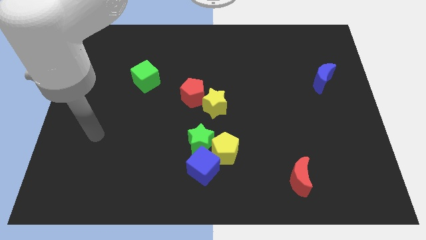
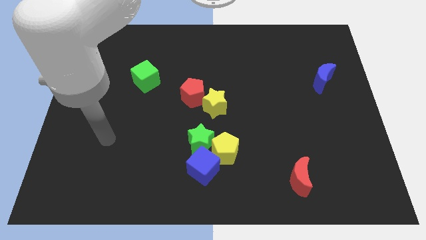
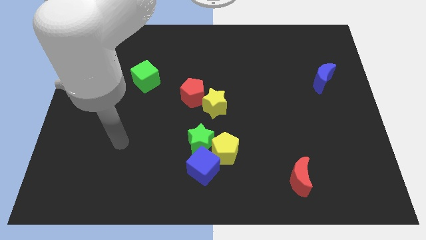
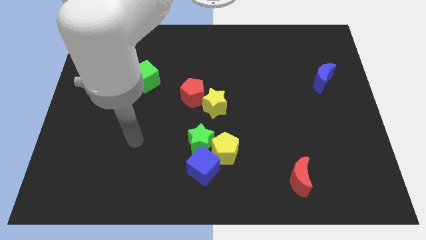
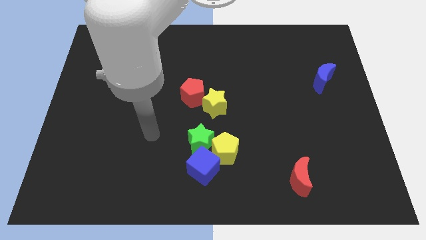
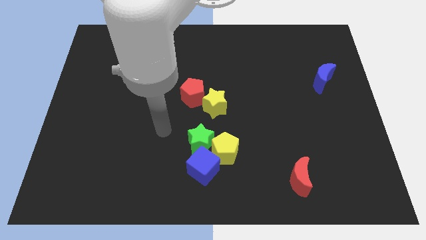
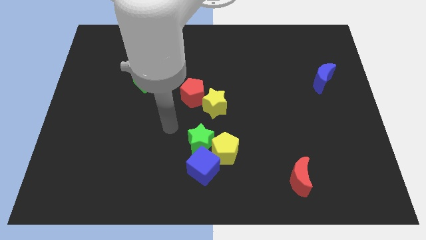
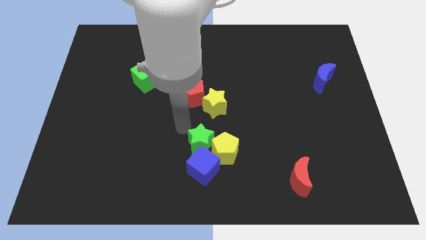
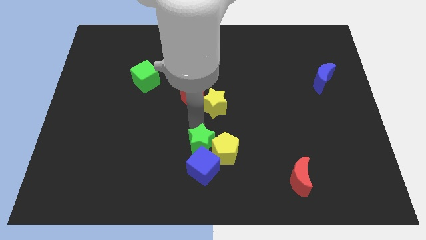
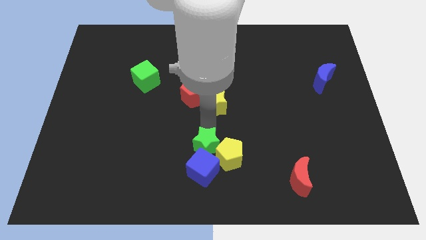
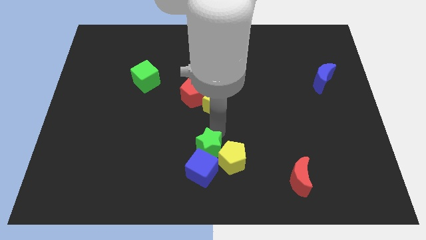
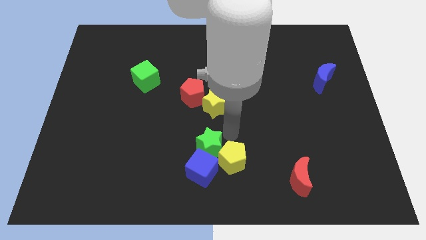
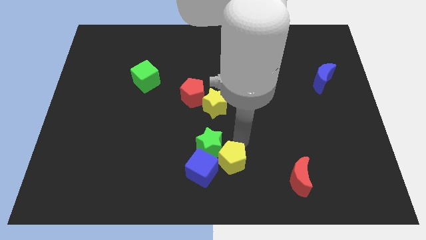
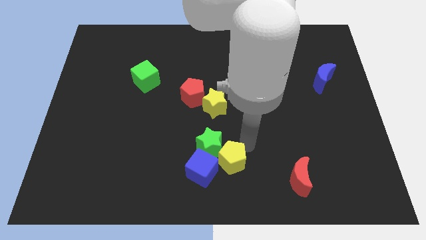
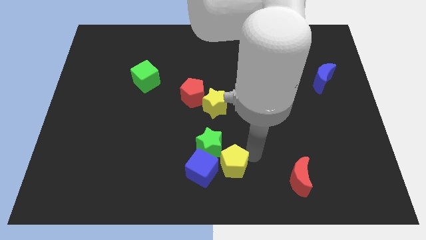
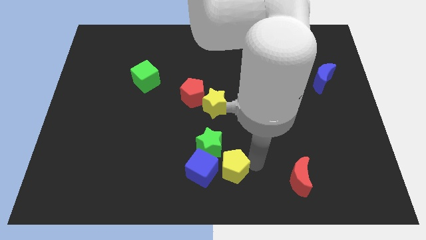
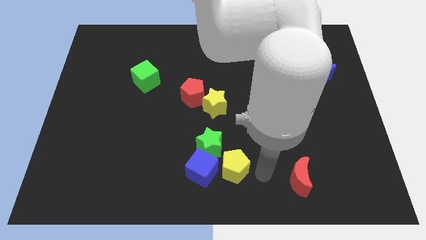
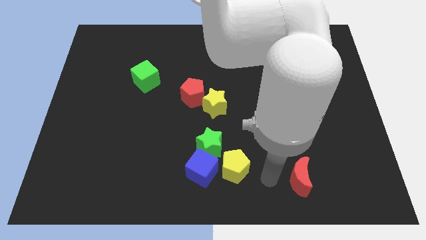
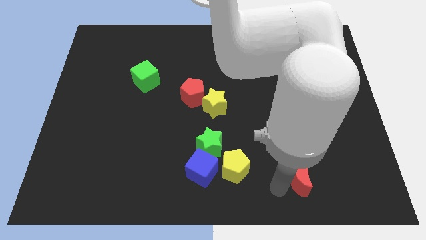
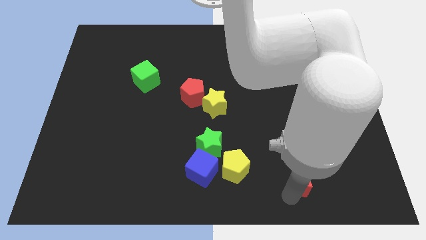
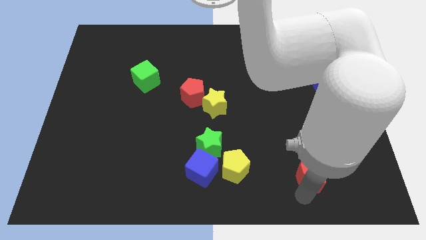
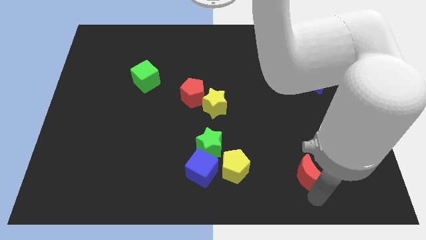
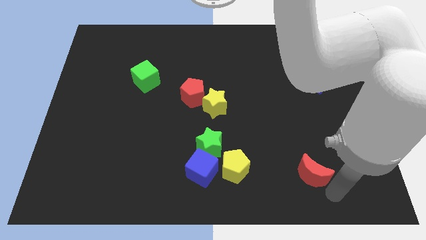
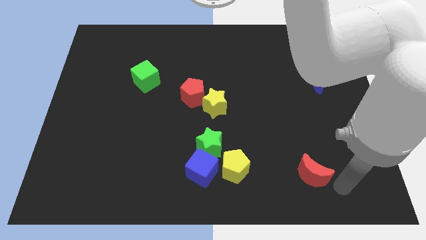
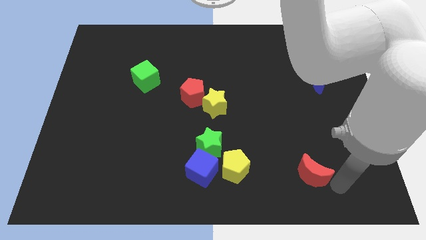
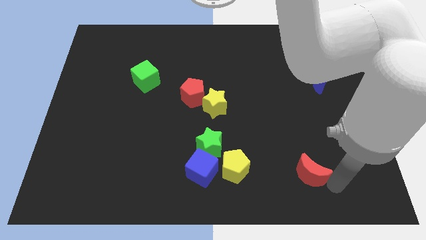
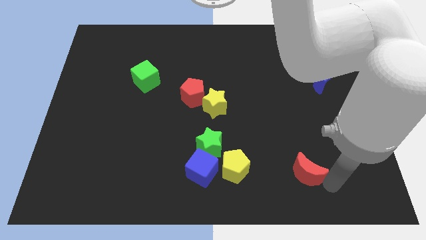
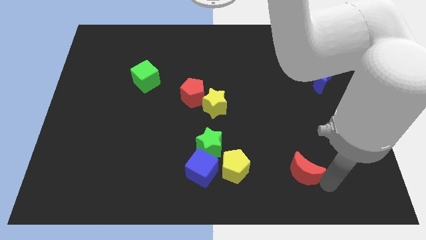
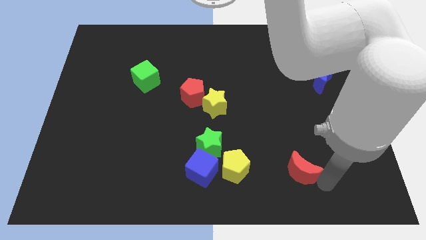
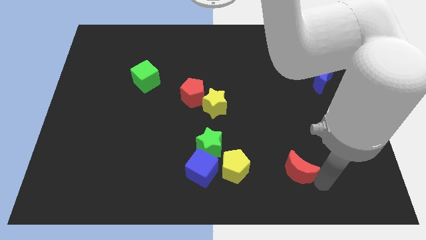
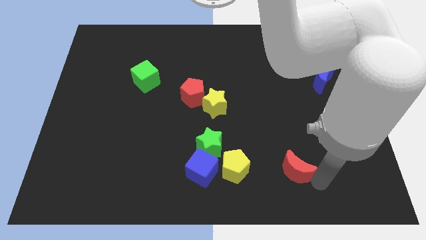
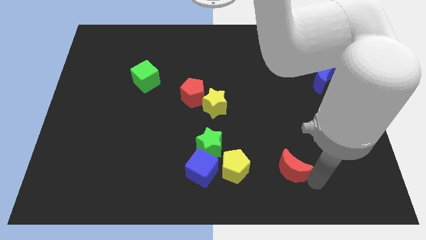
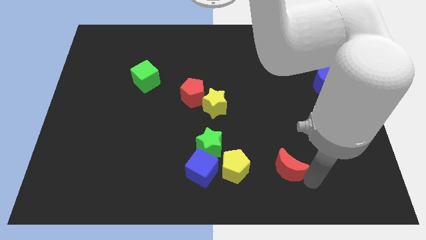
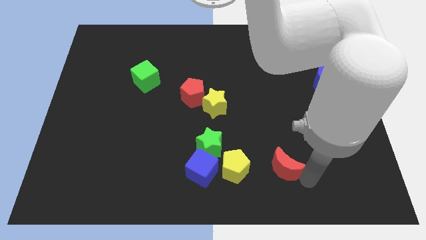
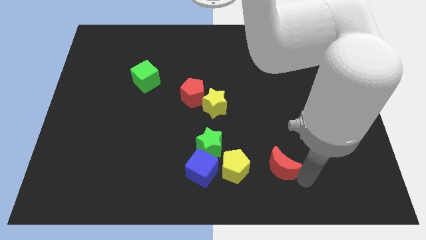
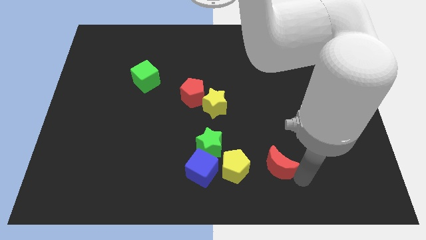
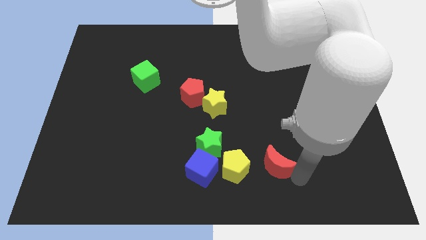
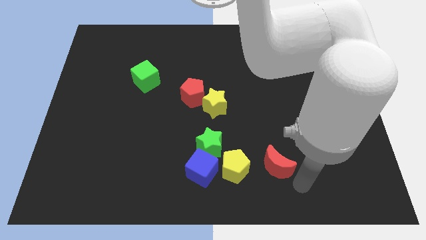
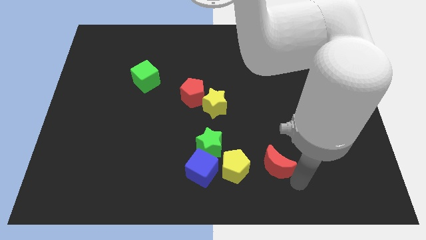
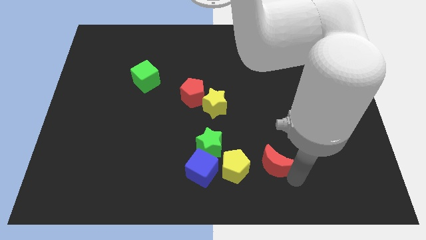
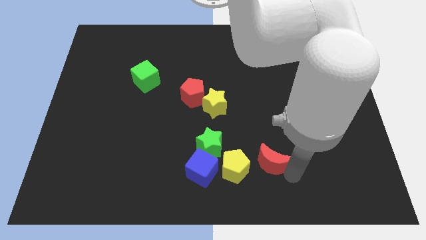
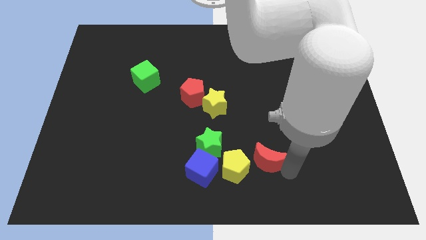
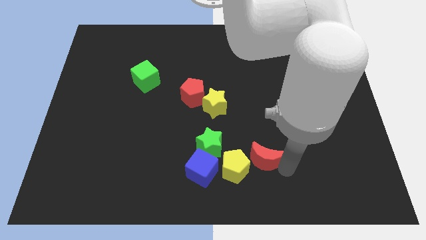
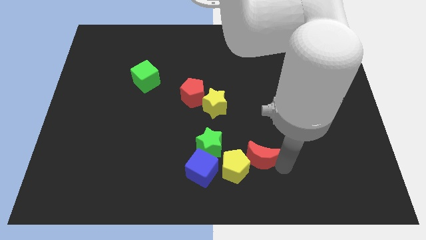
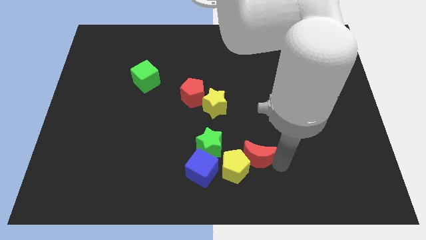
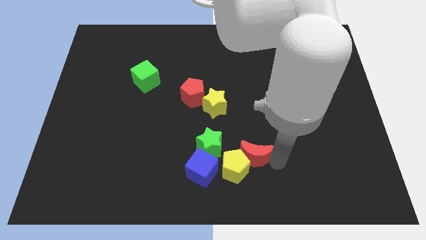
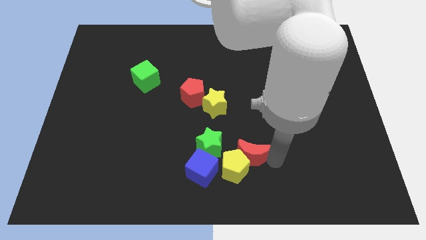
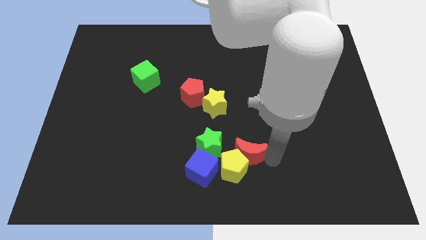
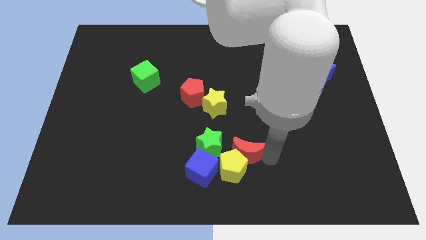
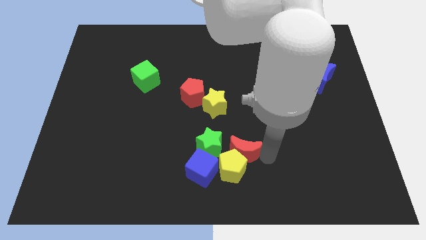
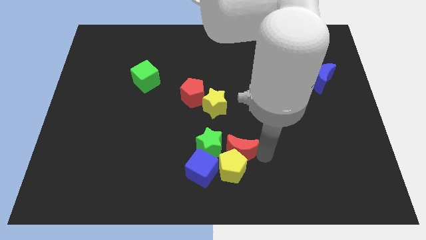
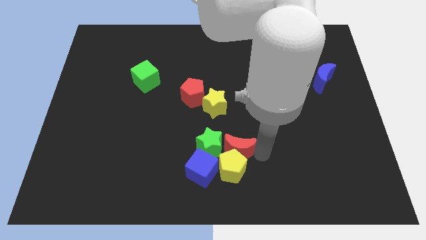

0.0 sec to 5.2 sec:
slide the red moon close to the green star

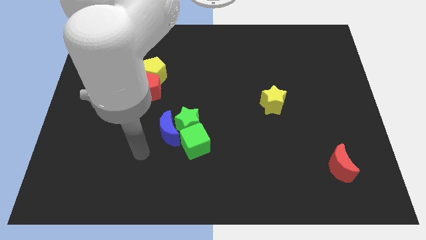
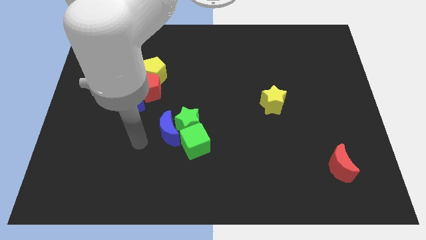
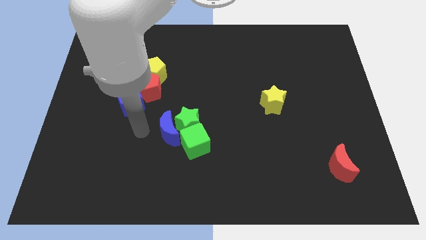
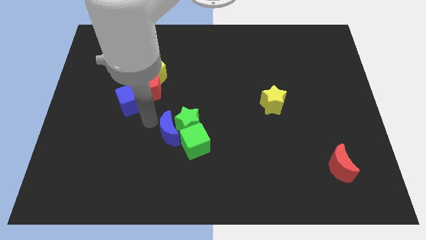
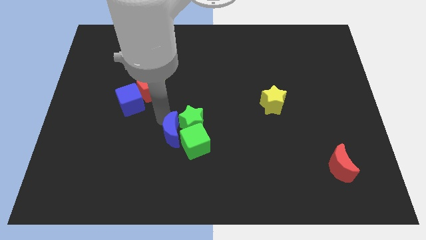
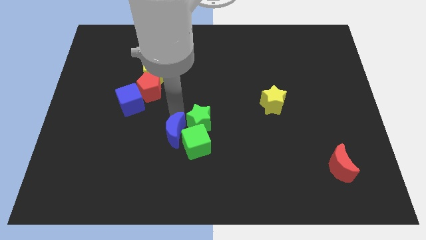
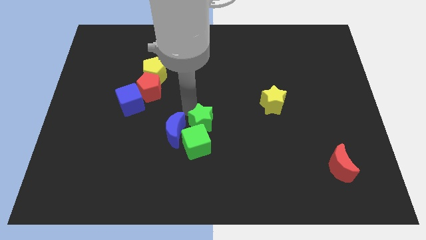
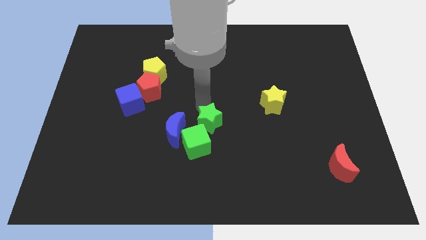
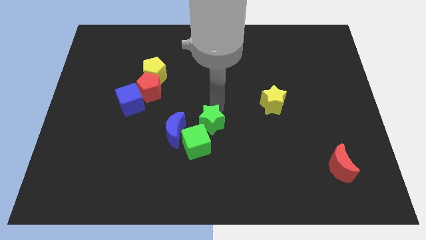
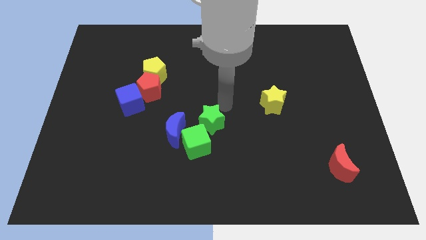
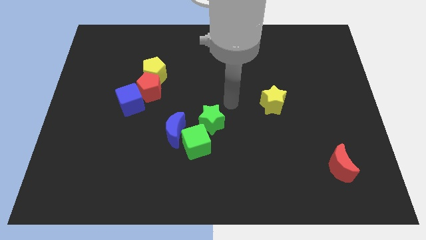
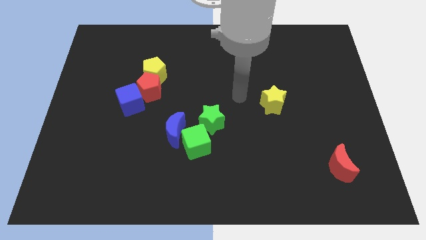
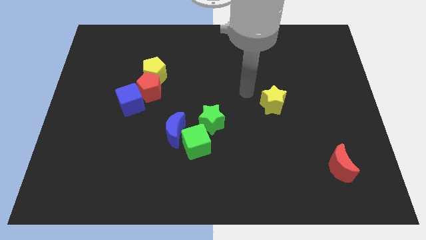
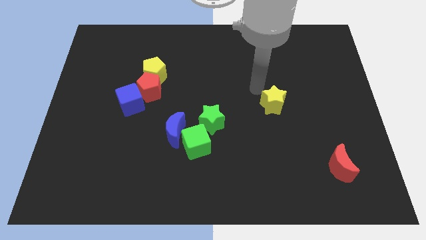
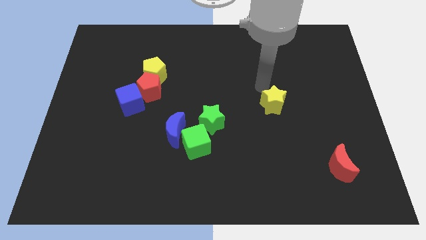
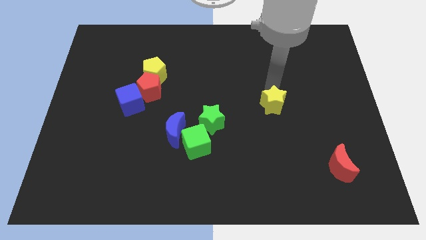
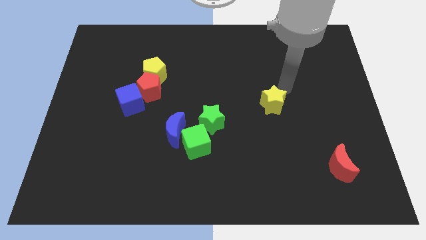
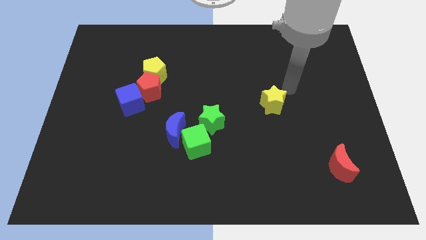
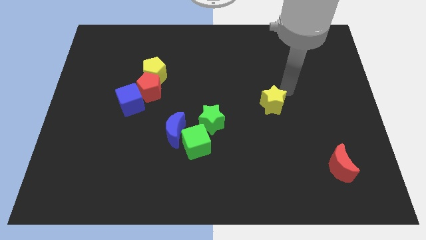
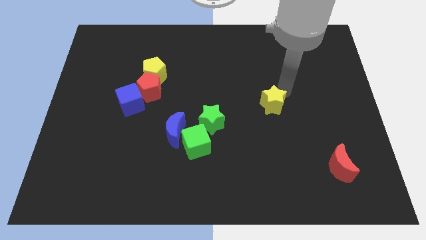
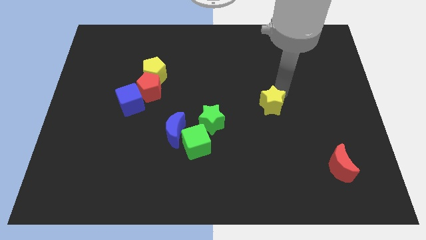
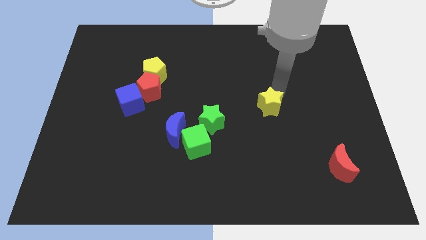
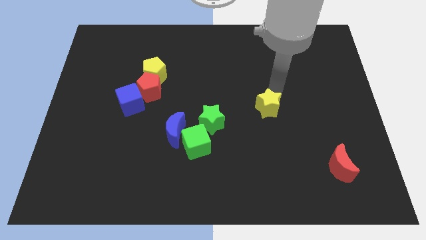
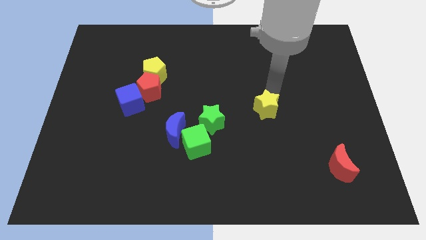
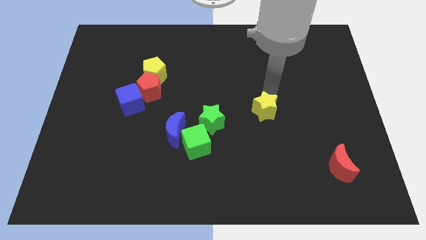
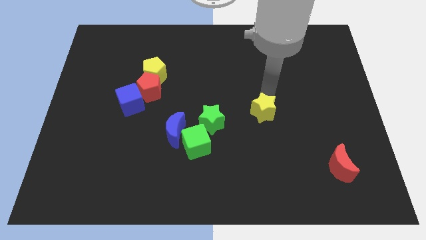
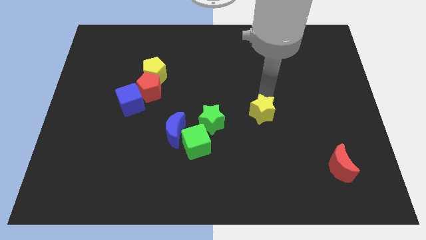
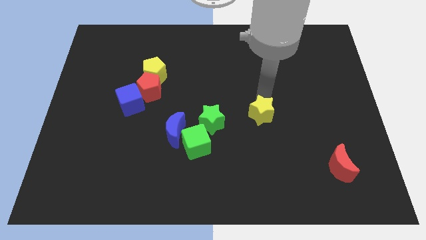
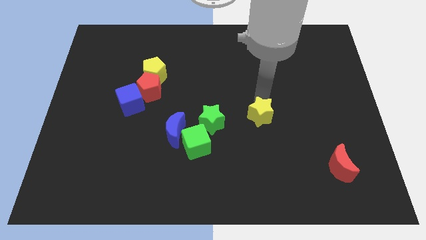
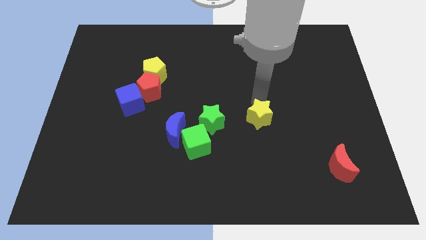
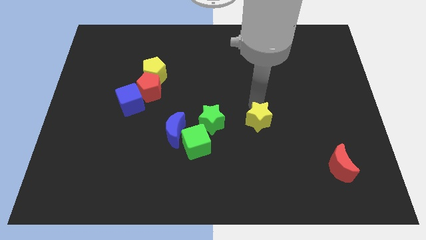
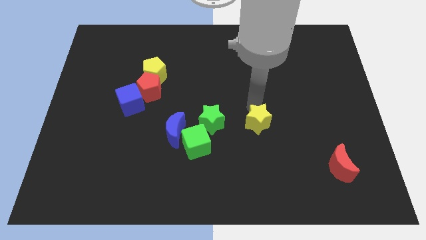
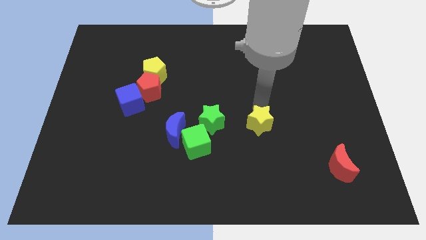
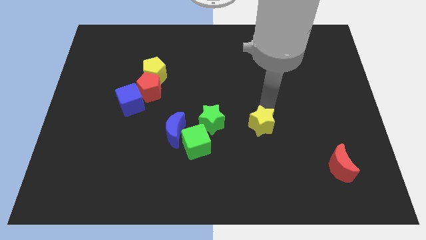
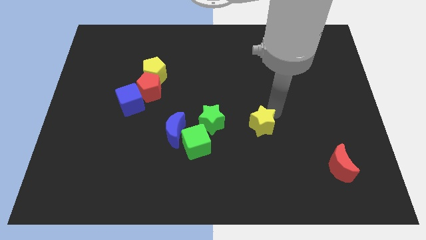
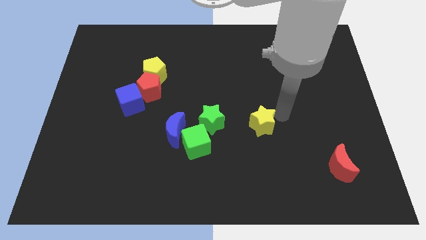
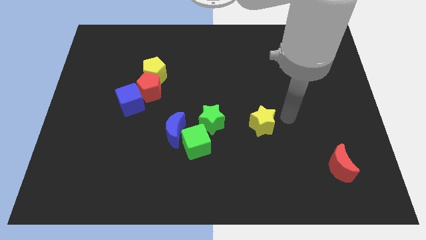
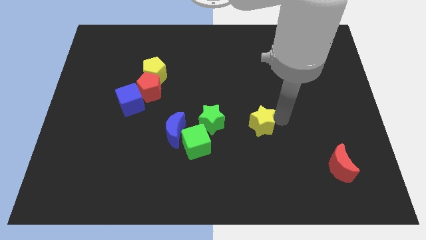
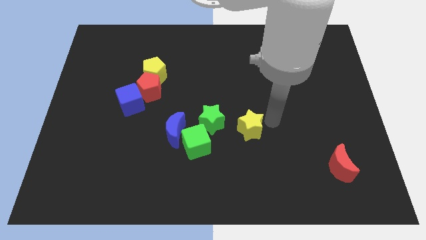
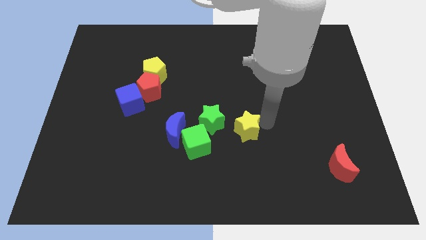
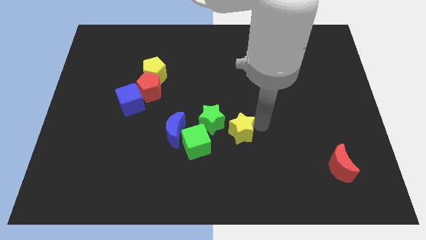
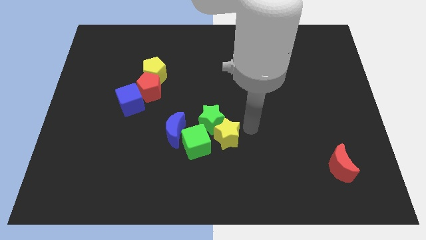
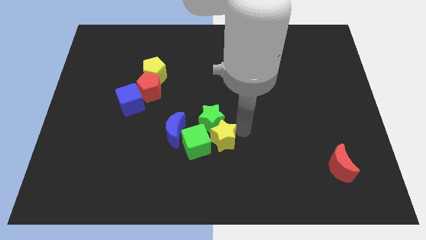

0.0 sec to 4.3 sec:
put the yellow star towards the green cube
